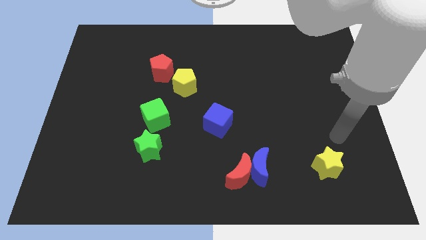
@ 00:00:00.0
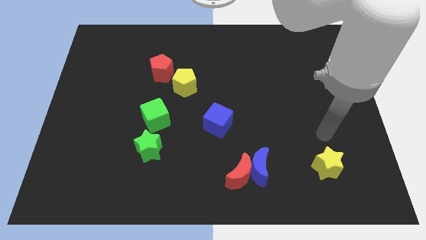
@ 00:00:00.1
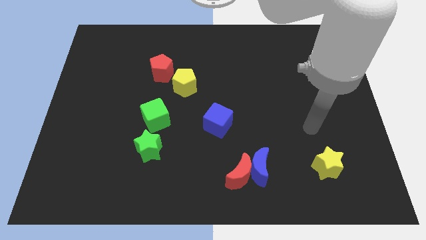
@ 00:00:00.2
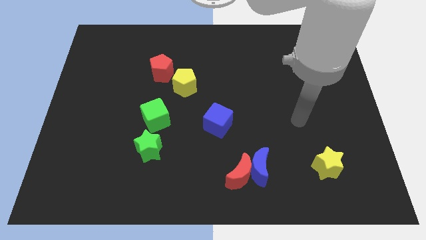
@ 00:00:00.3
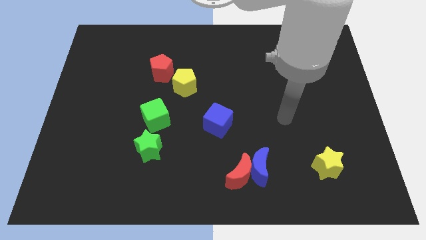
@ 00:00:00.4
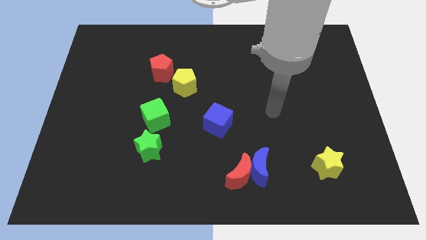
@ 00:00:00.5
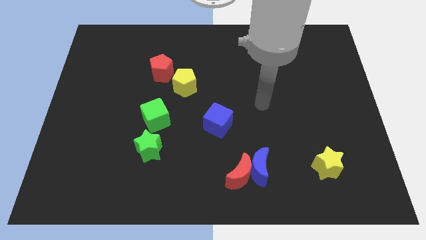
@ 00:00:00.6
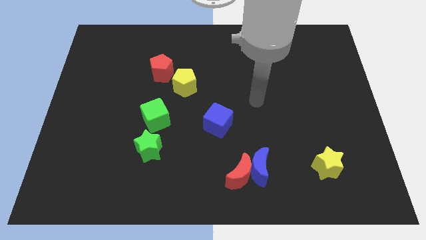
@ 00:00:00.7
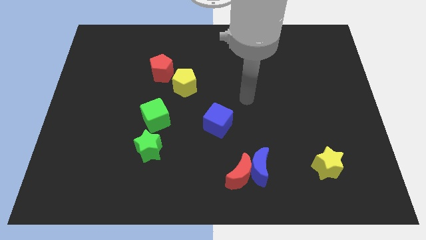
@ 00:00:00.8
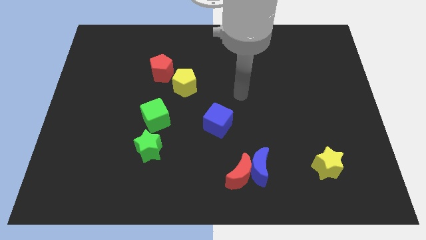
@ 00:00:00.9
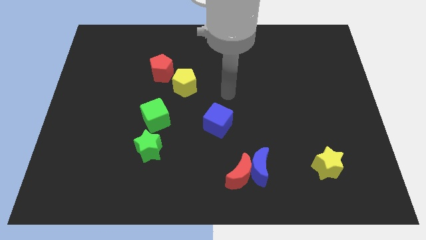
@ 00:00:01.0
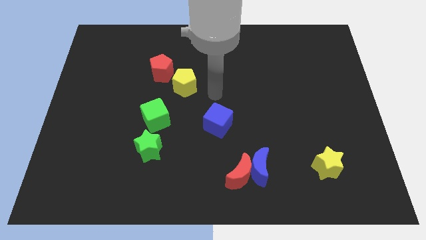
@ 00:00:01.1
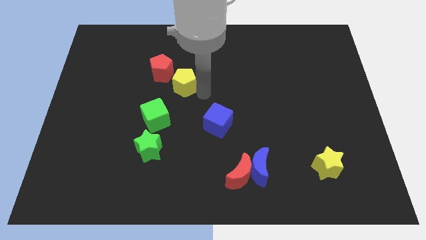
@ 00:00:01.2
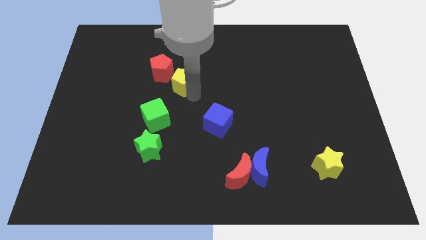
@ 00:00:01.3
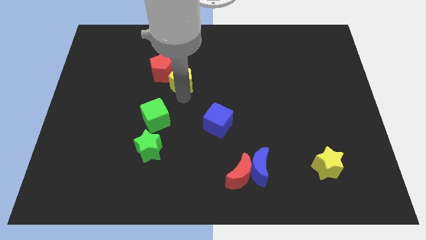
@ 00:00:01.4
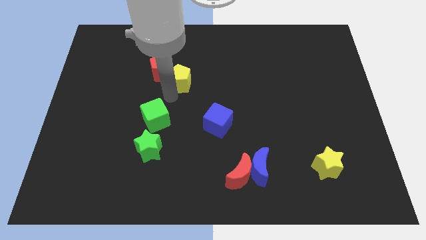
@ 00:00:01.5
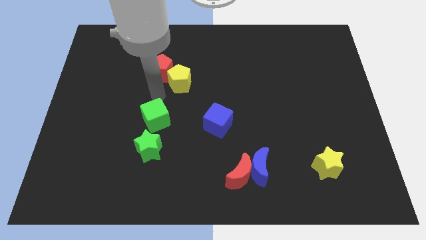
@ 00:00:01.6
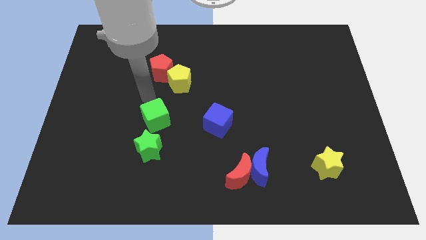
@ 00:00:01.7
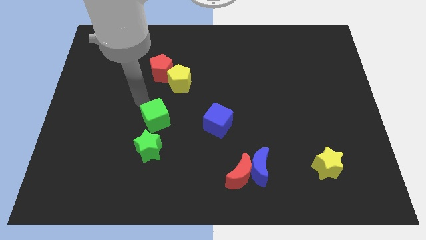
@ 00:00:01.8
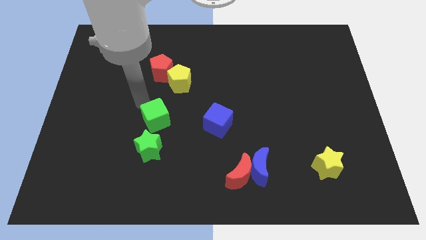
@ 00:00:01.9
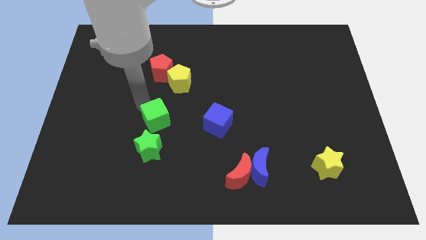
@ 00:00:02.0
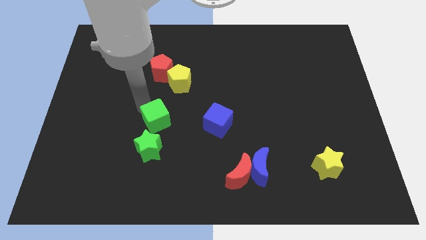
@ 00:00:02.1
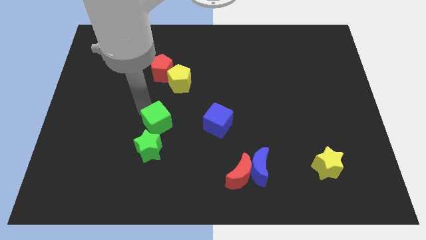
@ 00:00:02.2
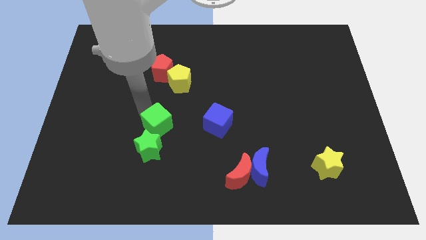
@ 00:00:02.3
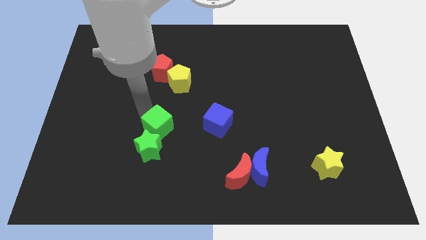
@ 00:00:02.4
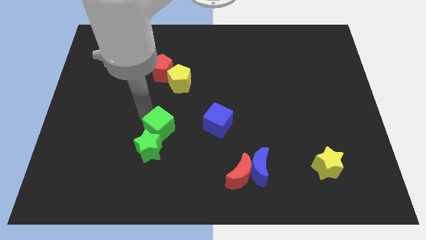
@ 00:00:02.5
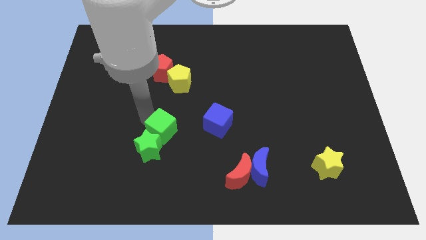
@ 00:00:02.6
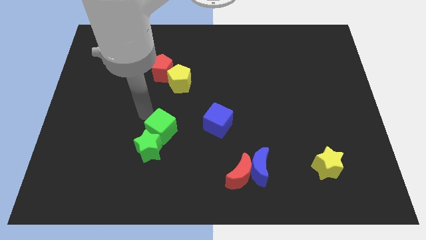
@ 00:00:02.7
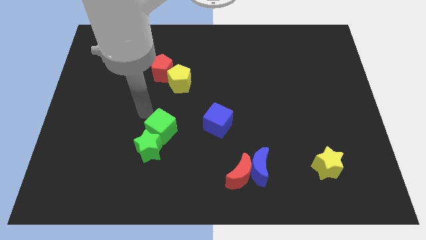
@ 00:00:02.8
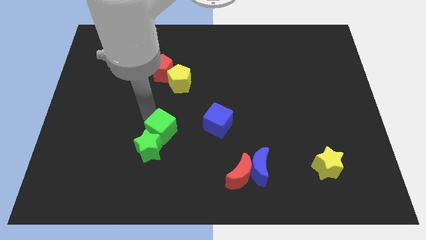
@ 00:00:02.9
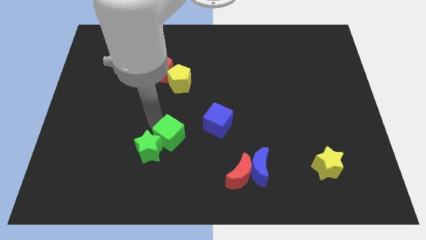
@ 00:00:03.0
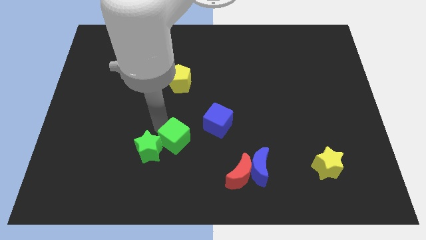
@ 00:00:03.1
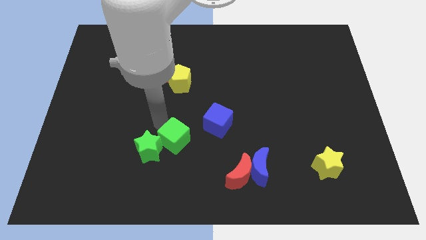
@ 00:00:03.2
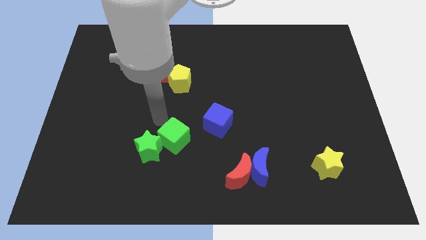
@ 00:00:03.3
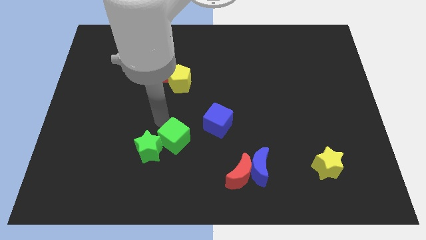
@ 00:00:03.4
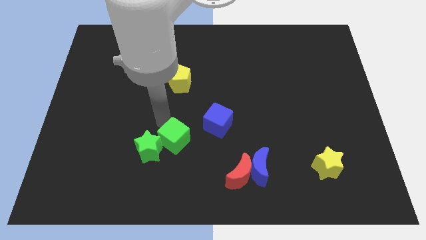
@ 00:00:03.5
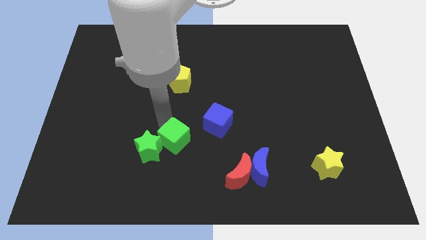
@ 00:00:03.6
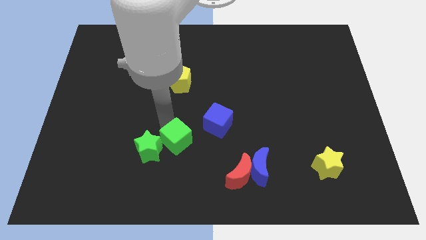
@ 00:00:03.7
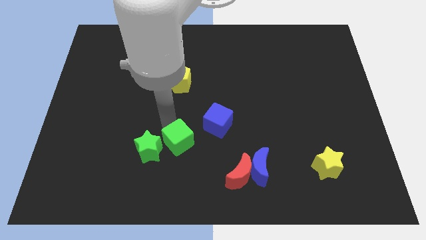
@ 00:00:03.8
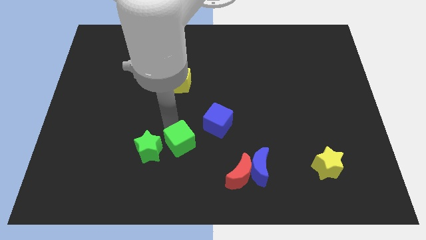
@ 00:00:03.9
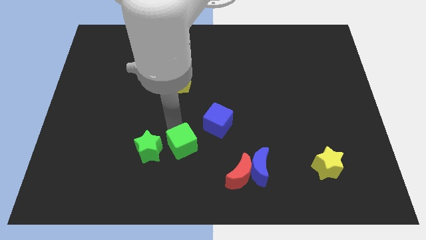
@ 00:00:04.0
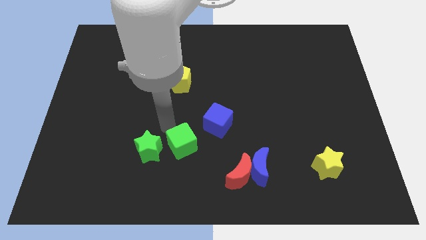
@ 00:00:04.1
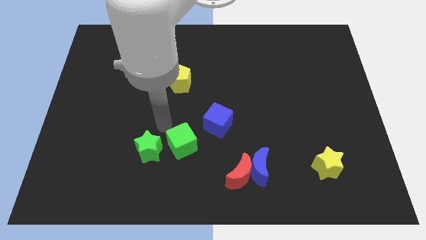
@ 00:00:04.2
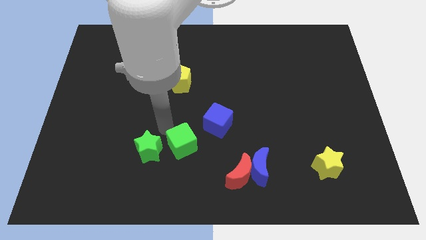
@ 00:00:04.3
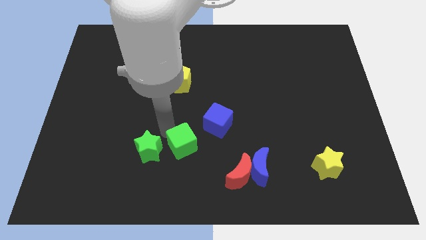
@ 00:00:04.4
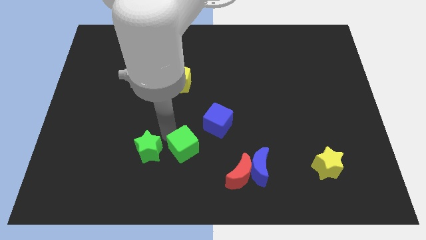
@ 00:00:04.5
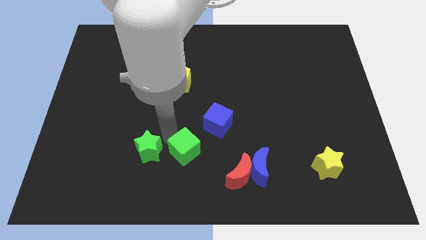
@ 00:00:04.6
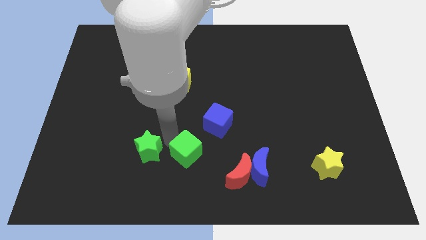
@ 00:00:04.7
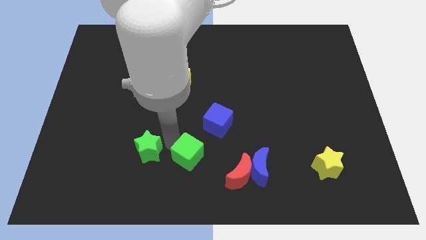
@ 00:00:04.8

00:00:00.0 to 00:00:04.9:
slide the green cube to the left of the blue moon

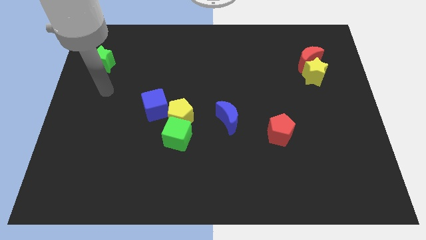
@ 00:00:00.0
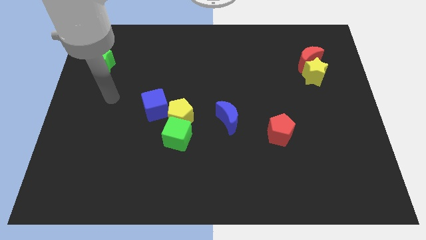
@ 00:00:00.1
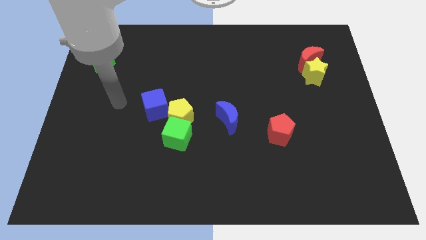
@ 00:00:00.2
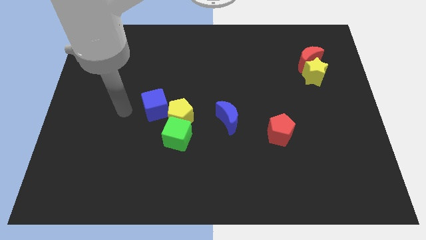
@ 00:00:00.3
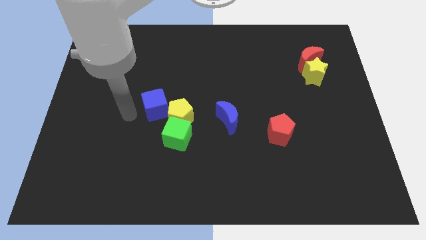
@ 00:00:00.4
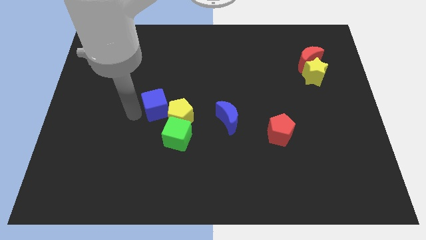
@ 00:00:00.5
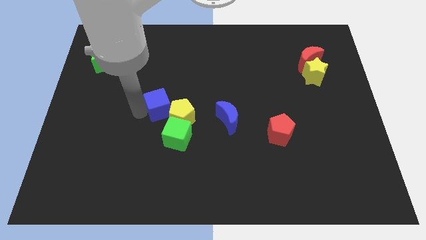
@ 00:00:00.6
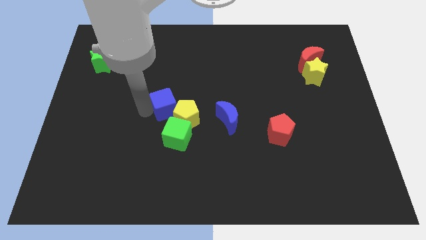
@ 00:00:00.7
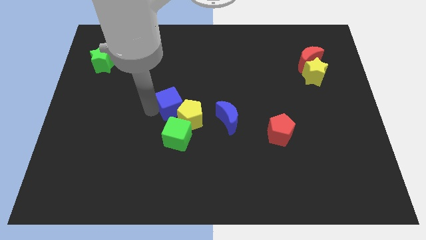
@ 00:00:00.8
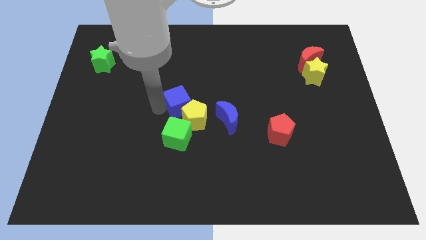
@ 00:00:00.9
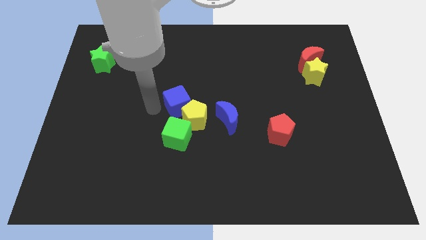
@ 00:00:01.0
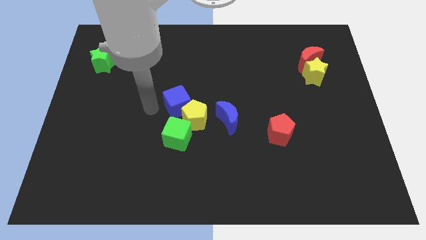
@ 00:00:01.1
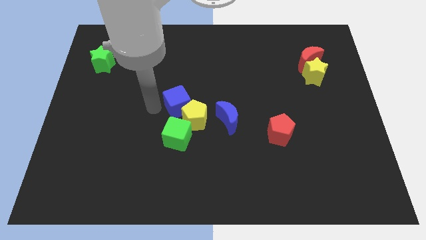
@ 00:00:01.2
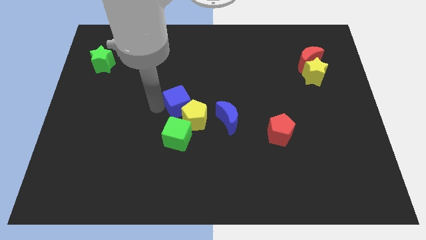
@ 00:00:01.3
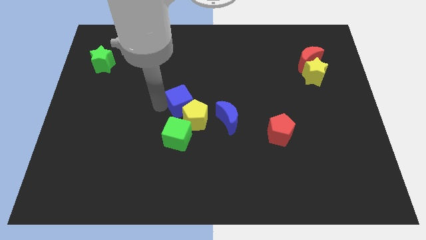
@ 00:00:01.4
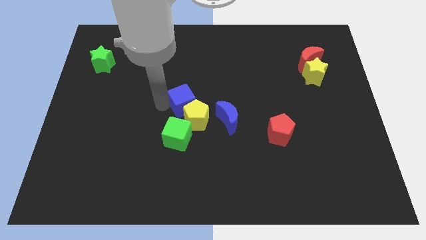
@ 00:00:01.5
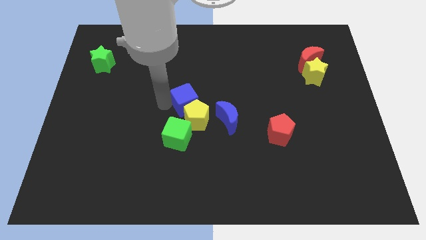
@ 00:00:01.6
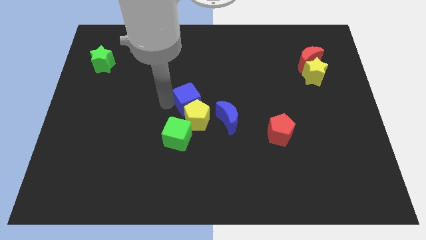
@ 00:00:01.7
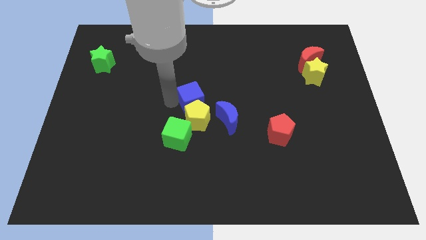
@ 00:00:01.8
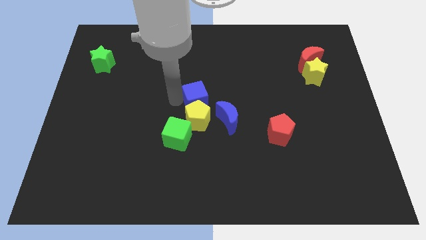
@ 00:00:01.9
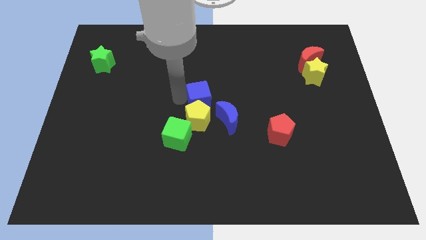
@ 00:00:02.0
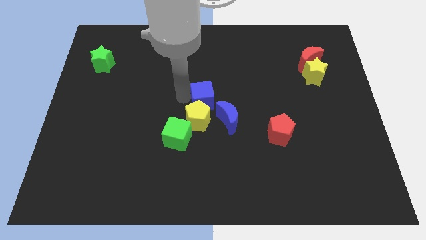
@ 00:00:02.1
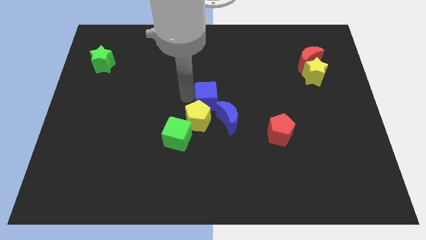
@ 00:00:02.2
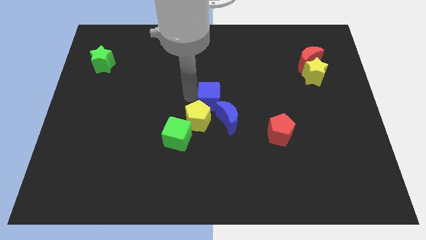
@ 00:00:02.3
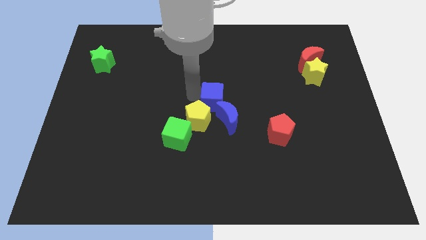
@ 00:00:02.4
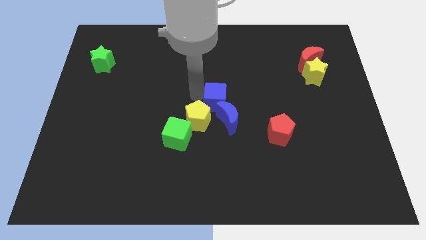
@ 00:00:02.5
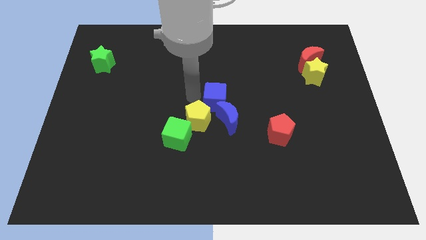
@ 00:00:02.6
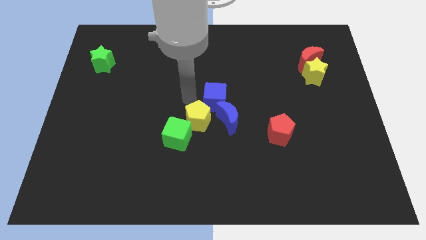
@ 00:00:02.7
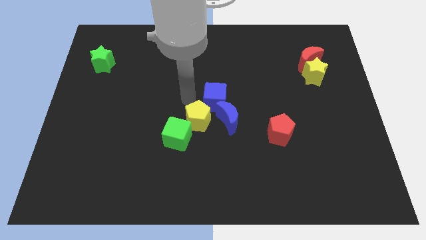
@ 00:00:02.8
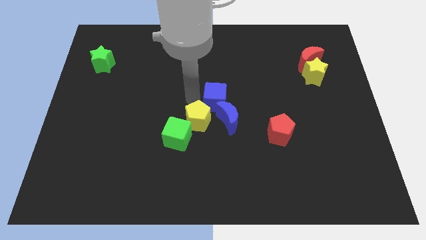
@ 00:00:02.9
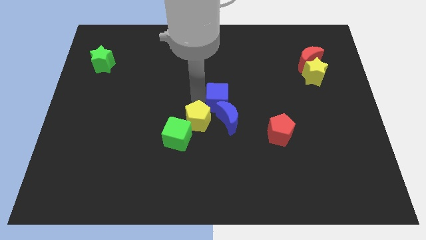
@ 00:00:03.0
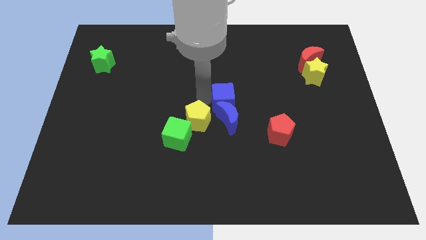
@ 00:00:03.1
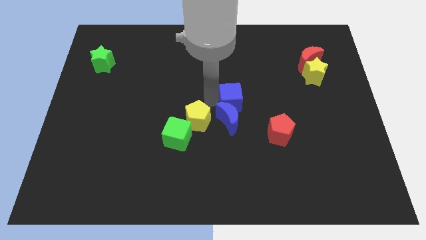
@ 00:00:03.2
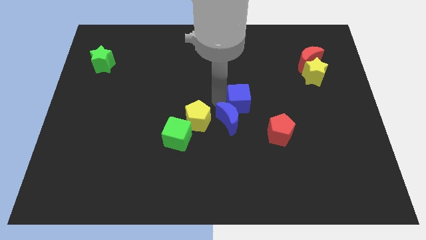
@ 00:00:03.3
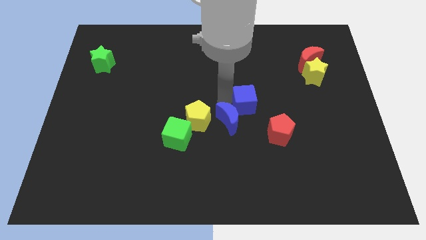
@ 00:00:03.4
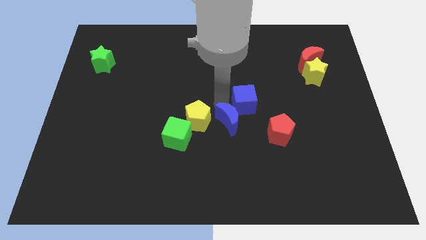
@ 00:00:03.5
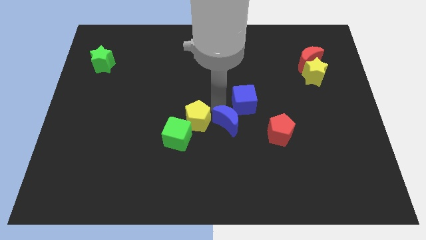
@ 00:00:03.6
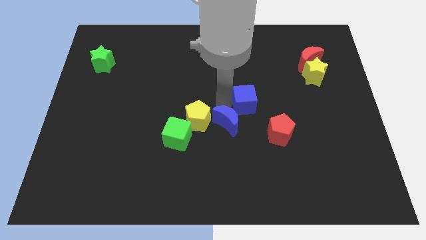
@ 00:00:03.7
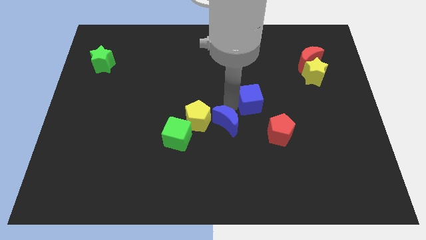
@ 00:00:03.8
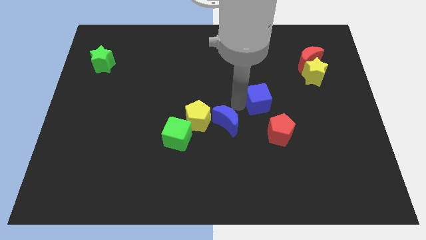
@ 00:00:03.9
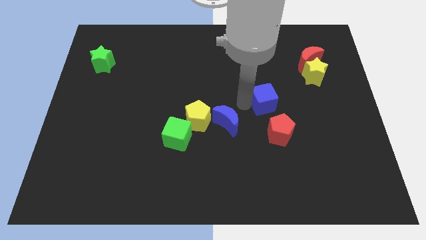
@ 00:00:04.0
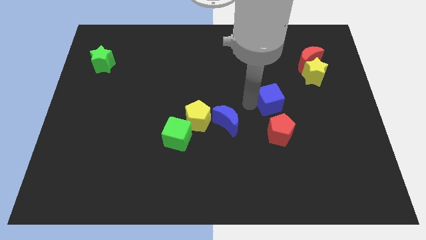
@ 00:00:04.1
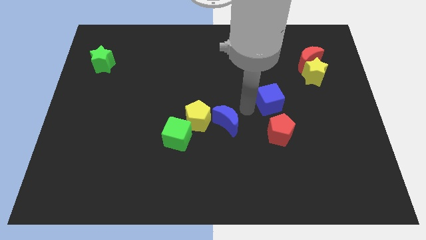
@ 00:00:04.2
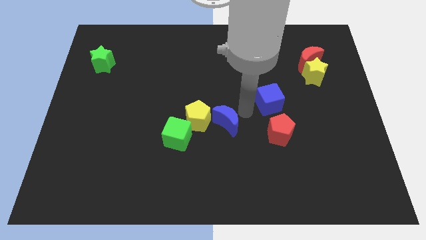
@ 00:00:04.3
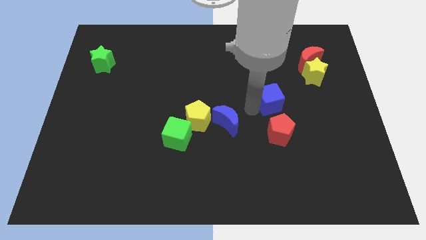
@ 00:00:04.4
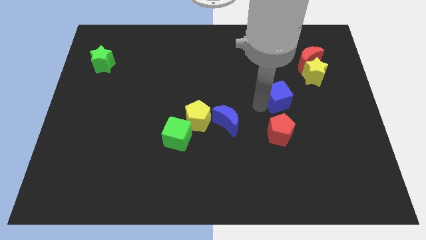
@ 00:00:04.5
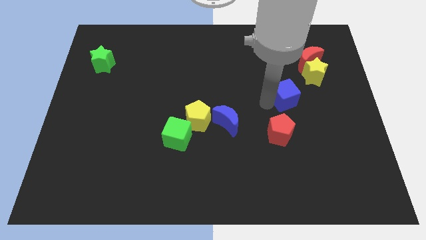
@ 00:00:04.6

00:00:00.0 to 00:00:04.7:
put the blue cube to the bottom left side of the yellow star
